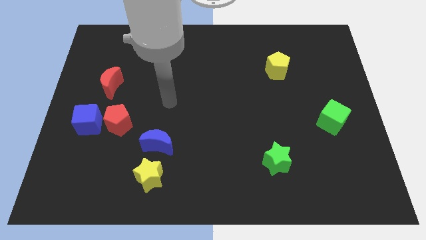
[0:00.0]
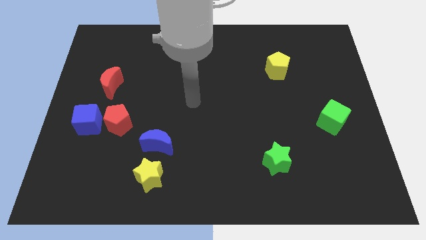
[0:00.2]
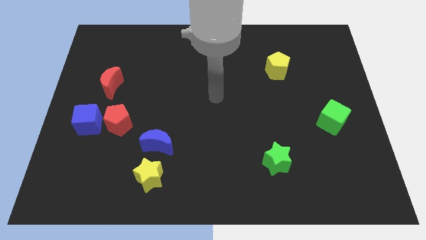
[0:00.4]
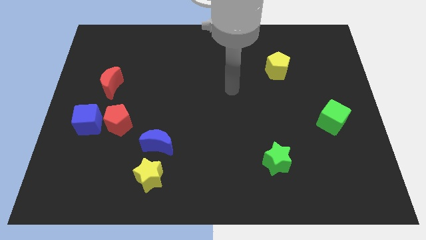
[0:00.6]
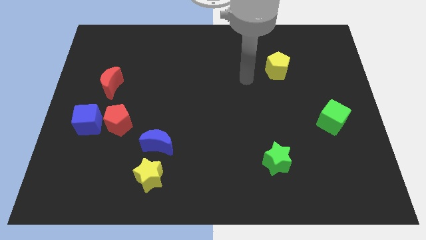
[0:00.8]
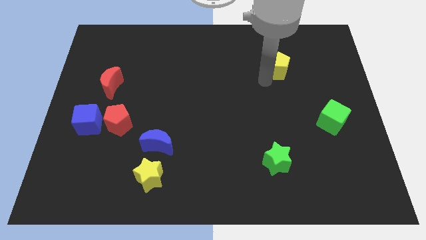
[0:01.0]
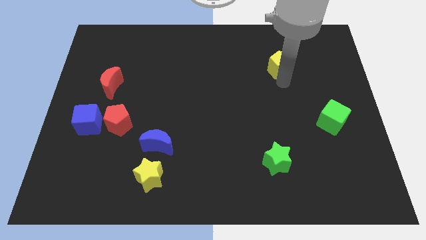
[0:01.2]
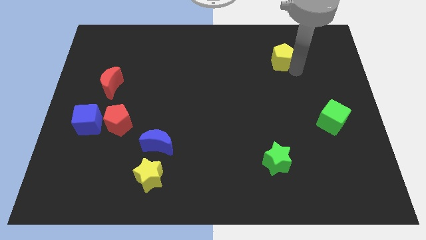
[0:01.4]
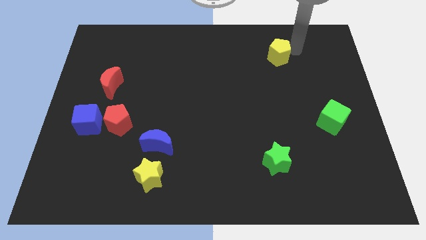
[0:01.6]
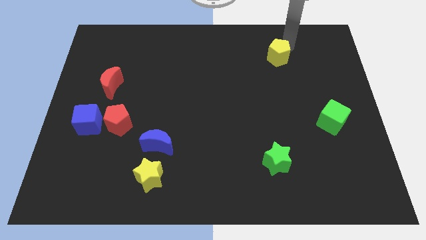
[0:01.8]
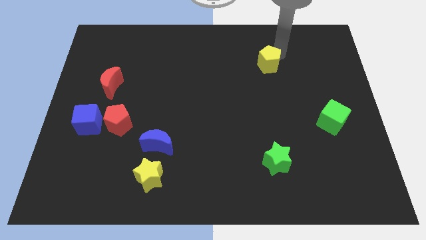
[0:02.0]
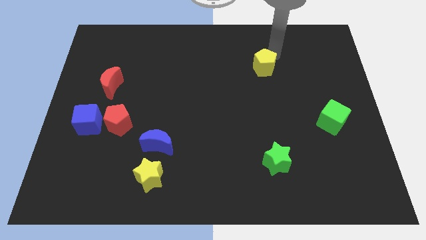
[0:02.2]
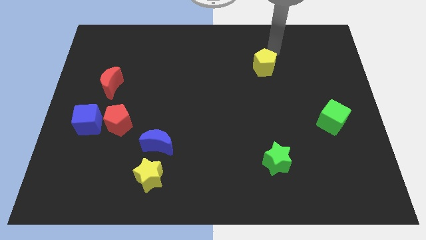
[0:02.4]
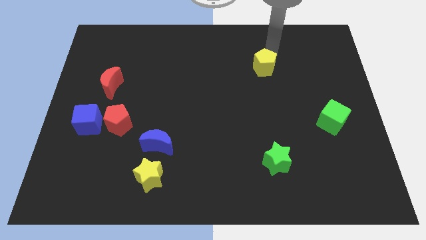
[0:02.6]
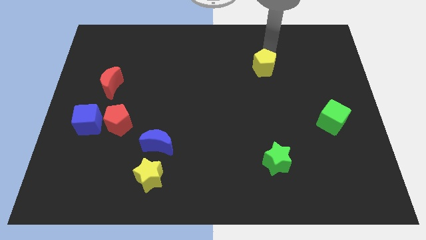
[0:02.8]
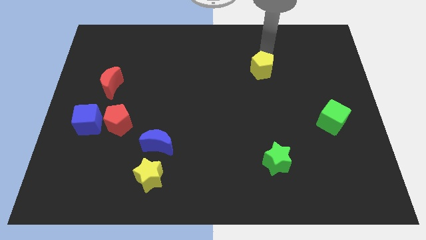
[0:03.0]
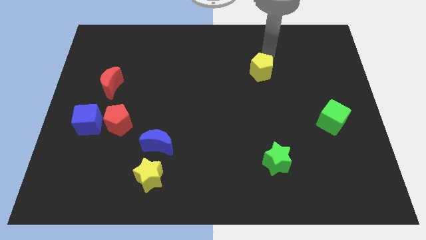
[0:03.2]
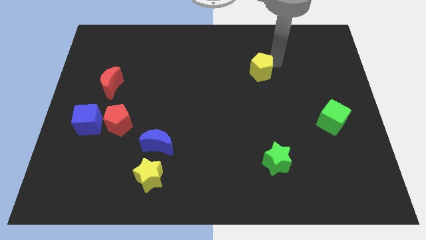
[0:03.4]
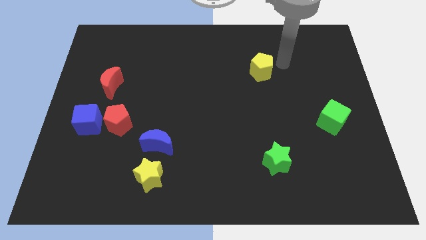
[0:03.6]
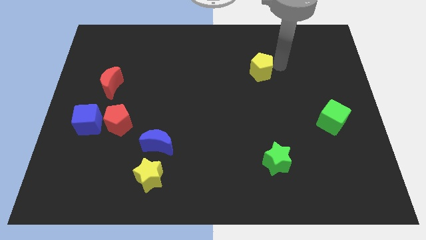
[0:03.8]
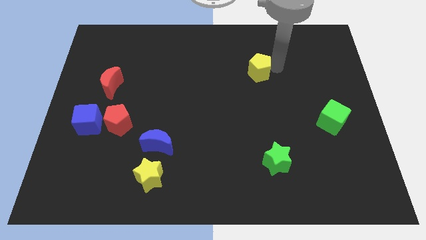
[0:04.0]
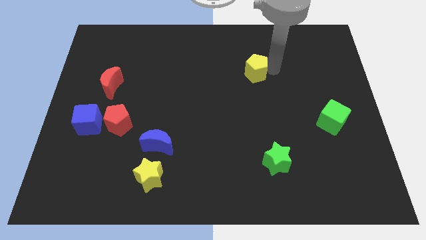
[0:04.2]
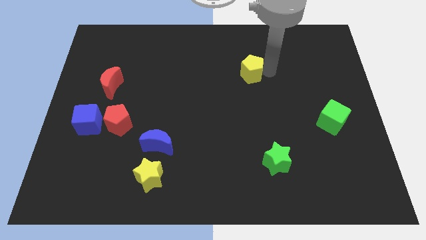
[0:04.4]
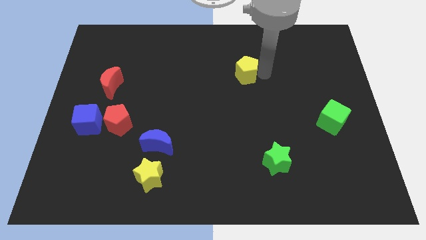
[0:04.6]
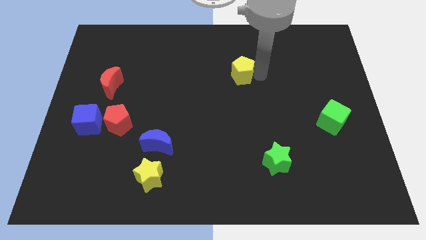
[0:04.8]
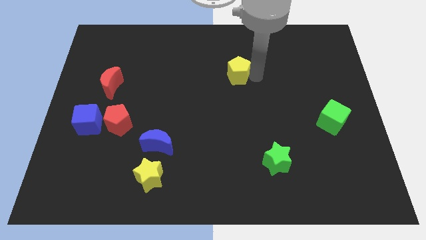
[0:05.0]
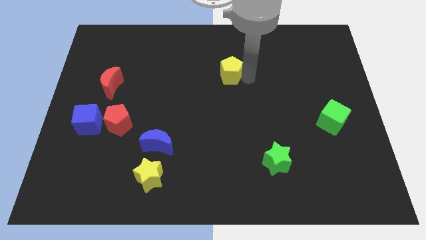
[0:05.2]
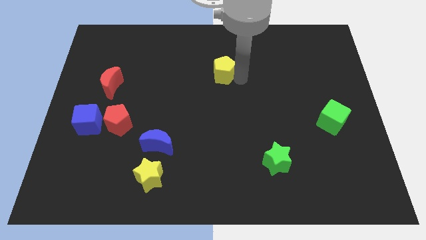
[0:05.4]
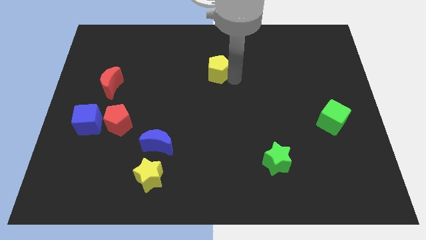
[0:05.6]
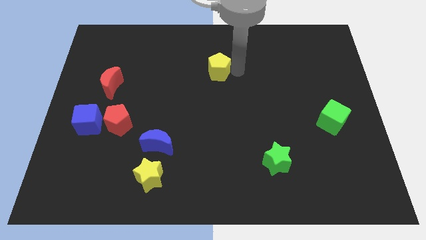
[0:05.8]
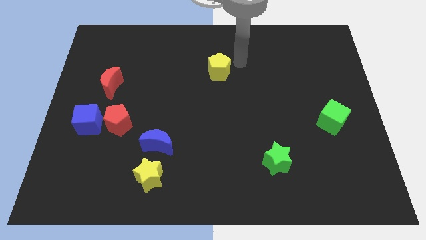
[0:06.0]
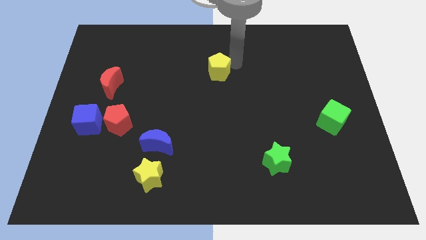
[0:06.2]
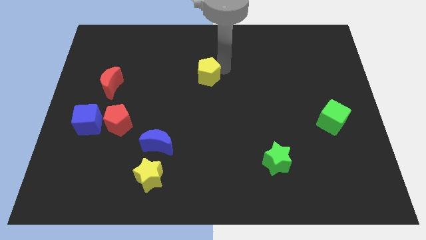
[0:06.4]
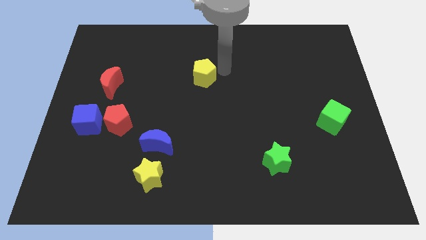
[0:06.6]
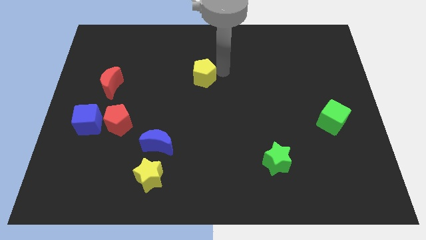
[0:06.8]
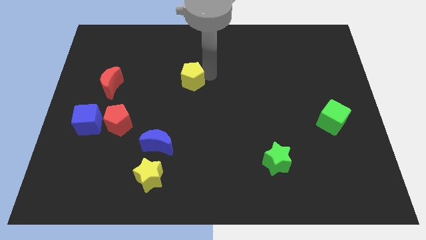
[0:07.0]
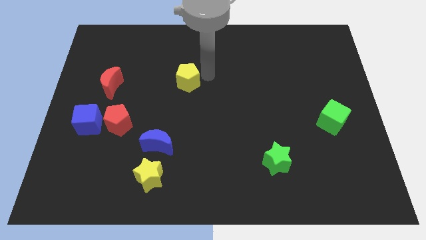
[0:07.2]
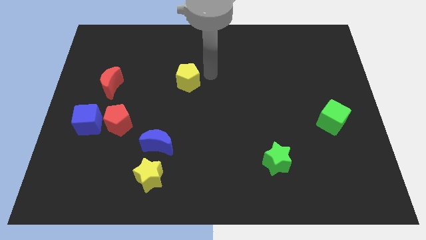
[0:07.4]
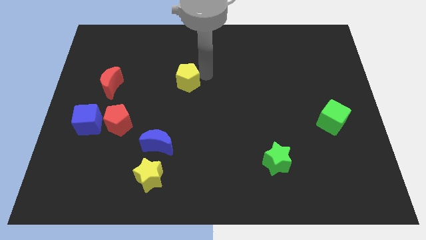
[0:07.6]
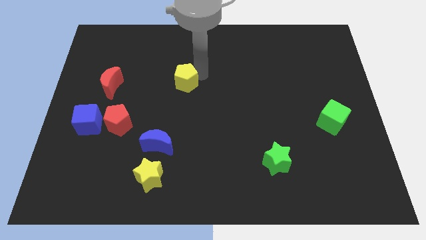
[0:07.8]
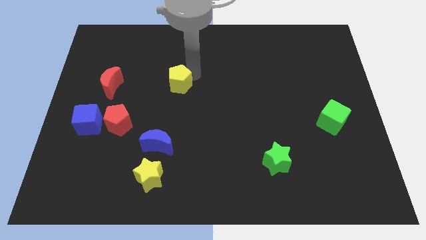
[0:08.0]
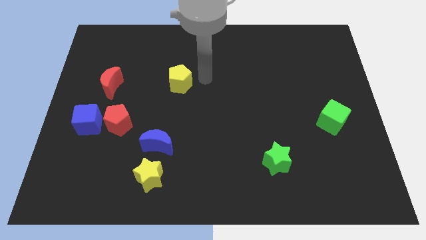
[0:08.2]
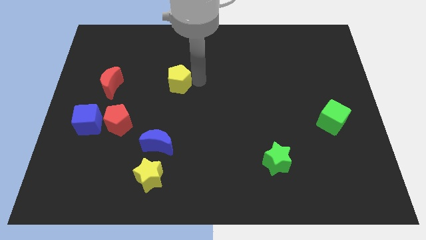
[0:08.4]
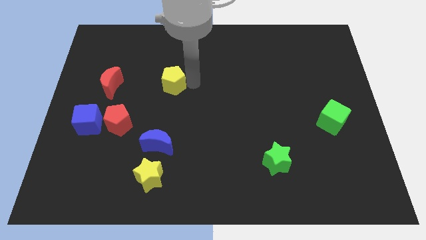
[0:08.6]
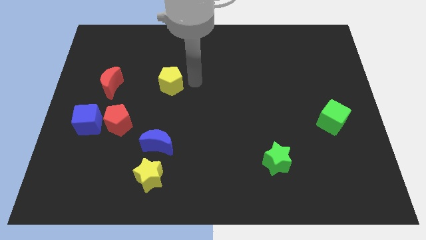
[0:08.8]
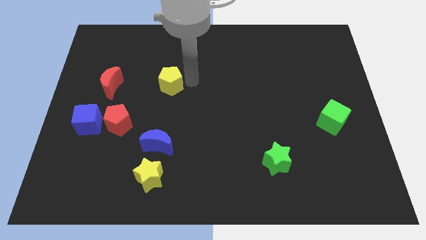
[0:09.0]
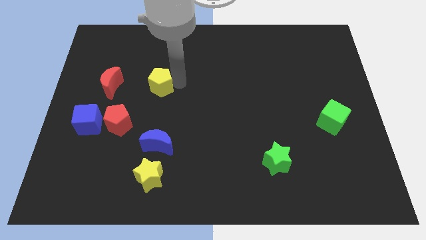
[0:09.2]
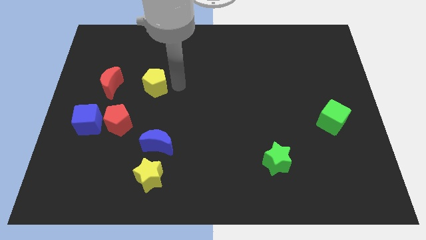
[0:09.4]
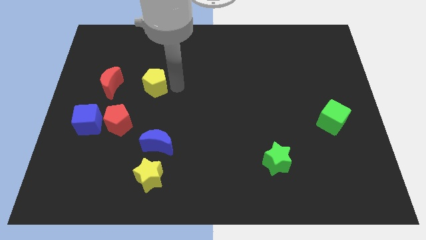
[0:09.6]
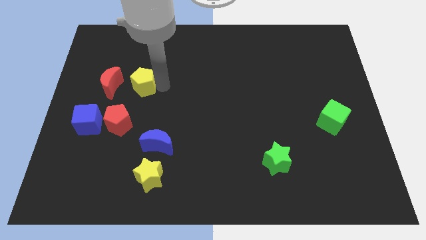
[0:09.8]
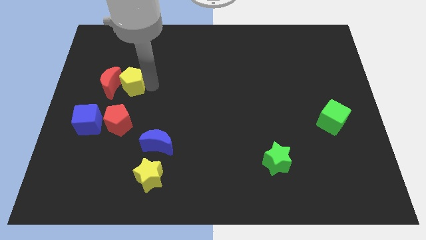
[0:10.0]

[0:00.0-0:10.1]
move the yellow pentagon to the red moon

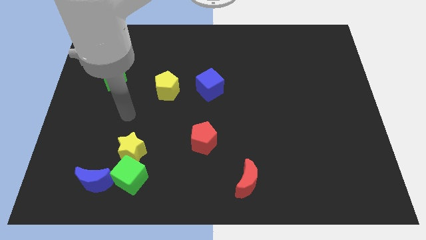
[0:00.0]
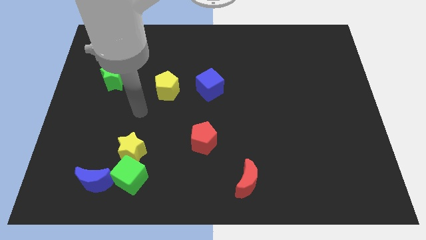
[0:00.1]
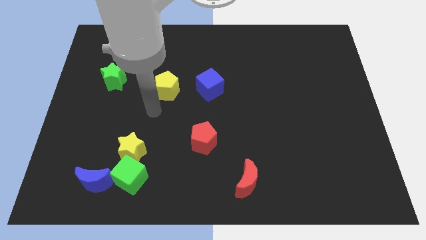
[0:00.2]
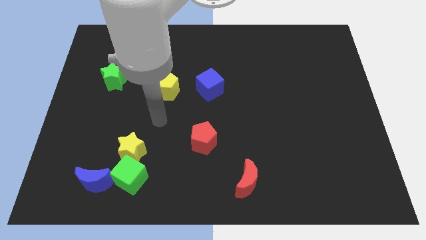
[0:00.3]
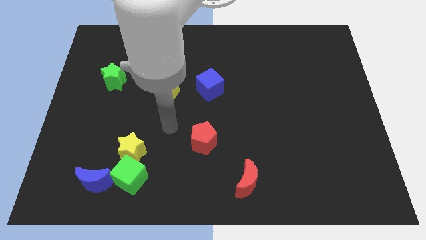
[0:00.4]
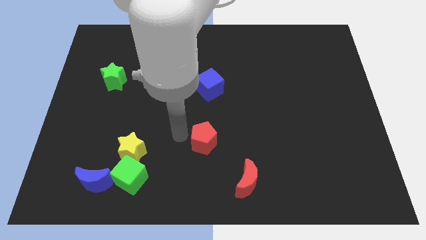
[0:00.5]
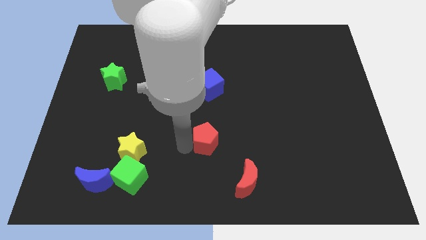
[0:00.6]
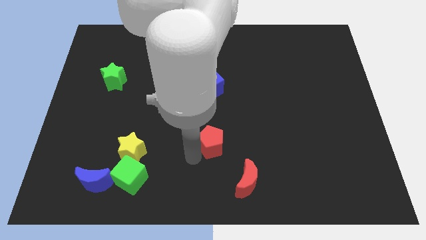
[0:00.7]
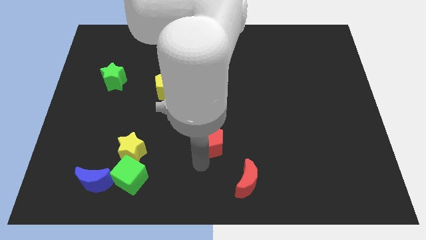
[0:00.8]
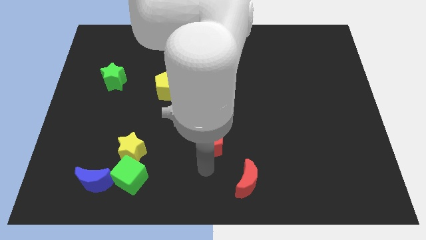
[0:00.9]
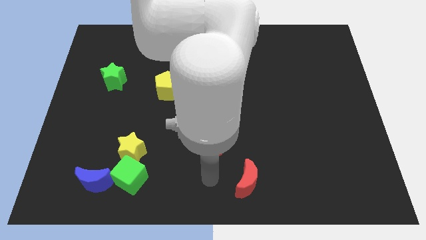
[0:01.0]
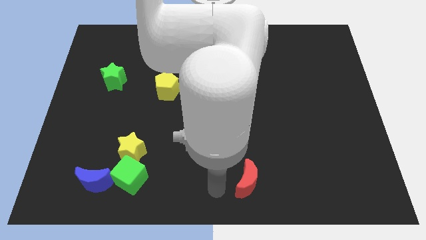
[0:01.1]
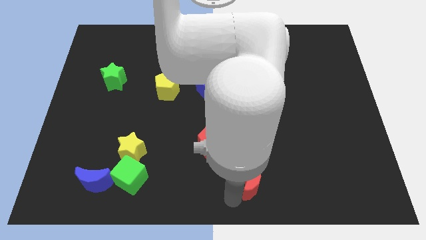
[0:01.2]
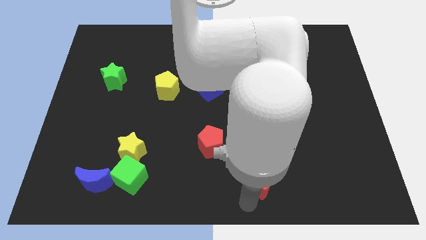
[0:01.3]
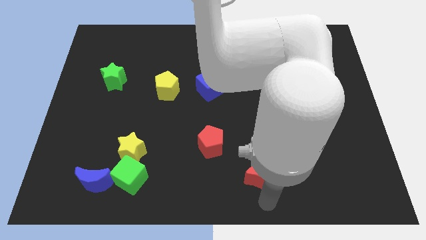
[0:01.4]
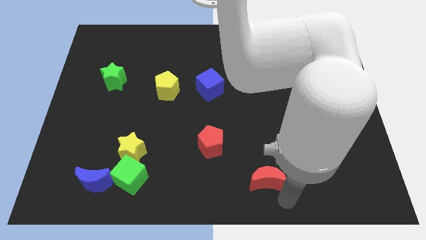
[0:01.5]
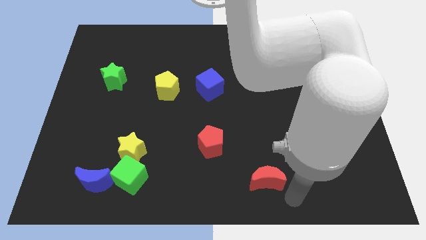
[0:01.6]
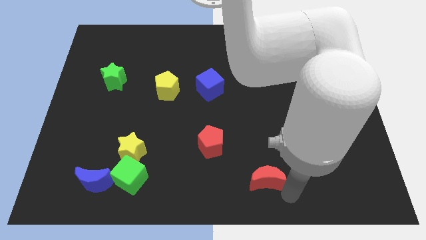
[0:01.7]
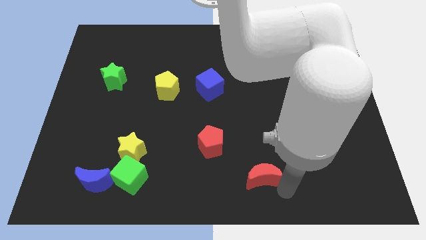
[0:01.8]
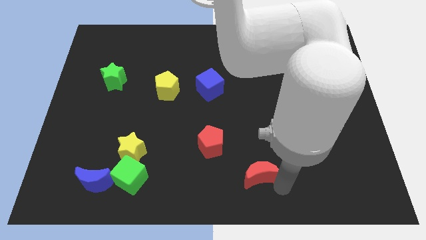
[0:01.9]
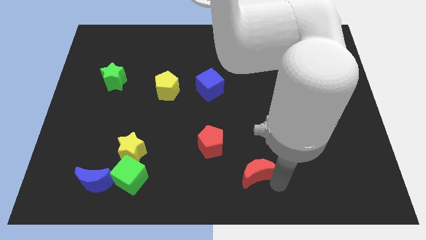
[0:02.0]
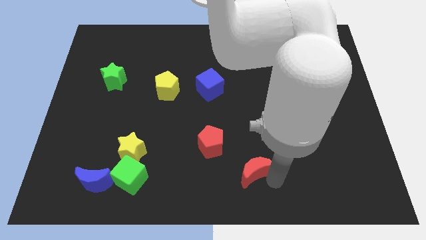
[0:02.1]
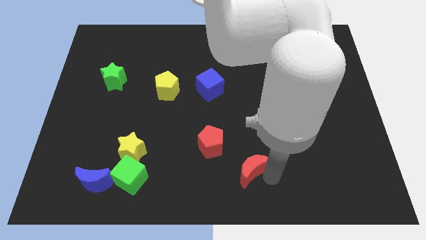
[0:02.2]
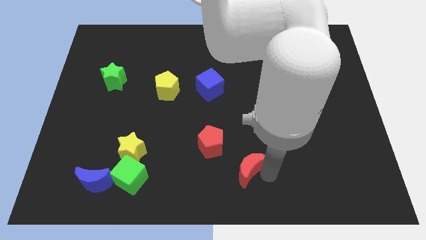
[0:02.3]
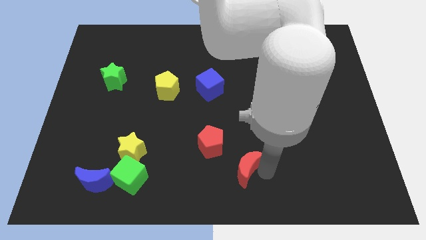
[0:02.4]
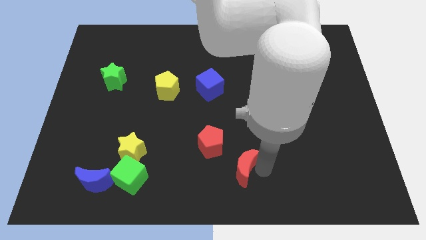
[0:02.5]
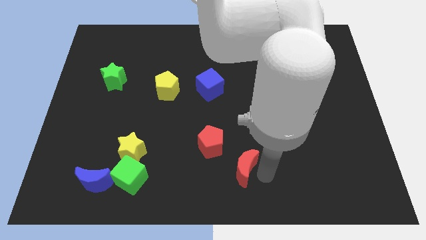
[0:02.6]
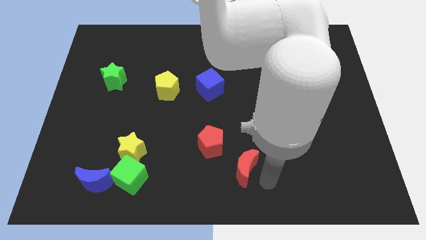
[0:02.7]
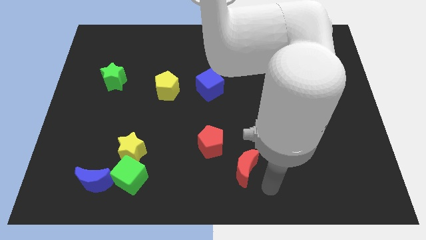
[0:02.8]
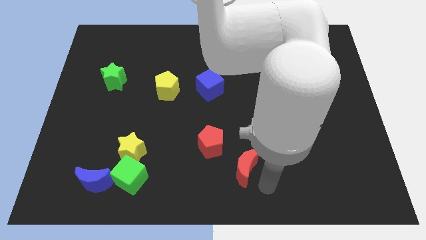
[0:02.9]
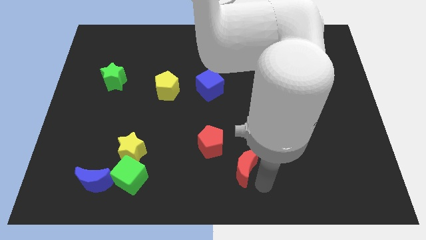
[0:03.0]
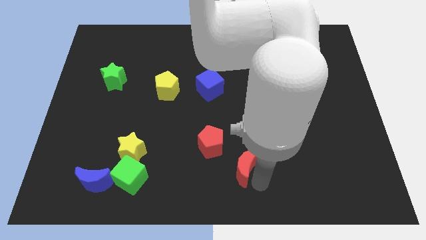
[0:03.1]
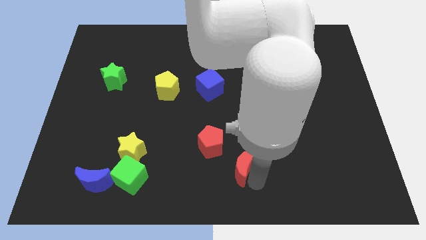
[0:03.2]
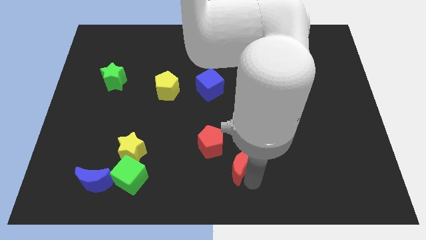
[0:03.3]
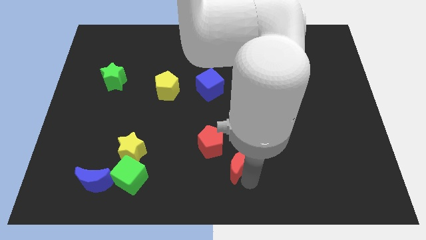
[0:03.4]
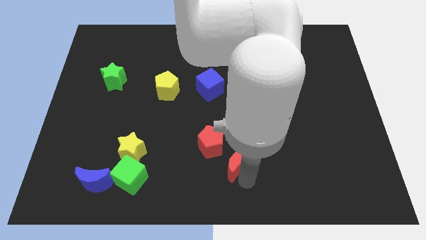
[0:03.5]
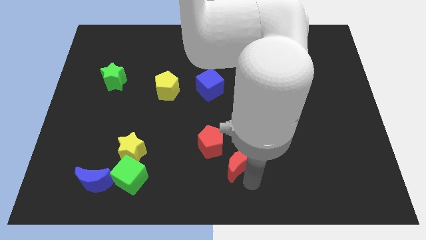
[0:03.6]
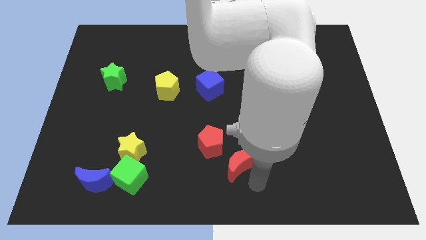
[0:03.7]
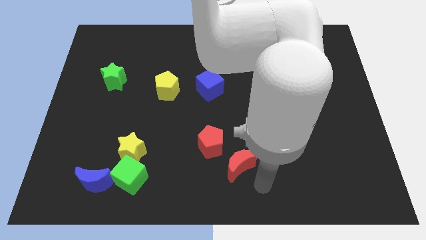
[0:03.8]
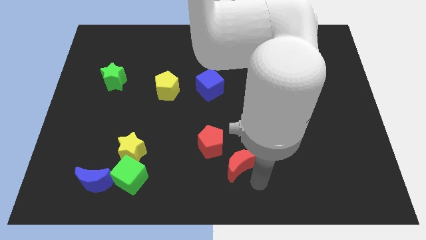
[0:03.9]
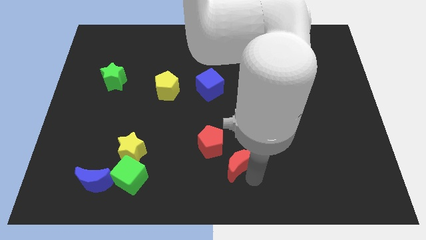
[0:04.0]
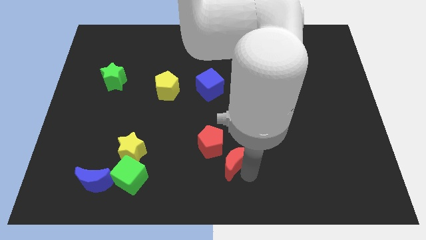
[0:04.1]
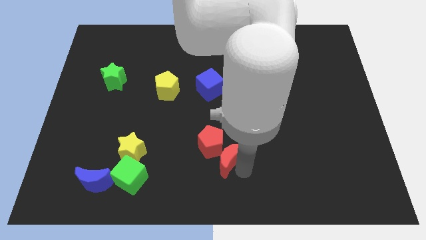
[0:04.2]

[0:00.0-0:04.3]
move the red moon next to the red pentagon
